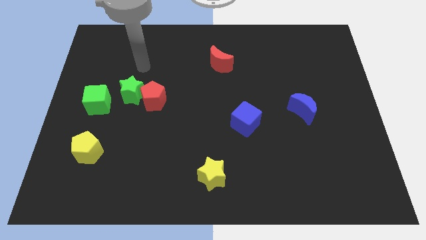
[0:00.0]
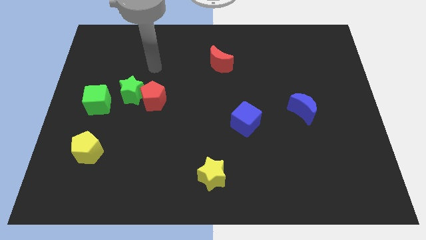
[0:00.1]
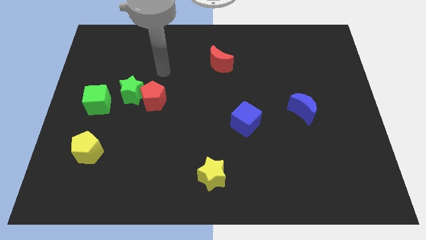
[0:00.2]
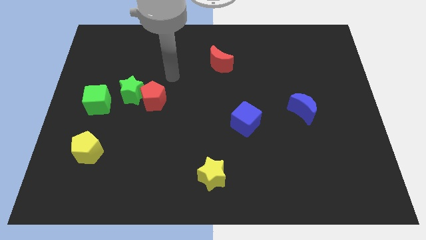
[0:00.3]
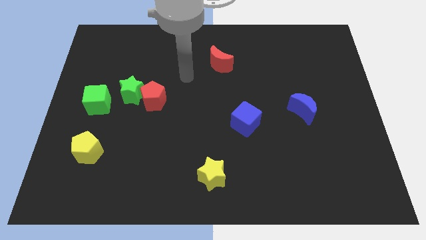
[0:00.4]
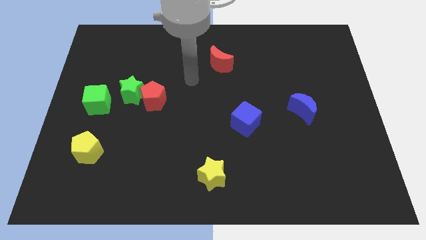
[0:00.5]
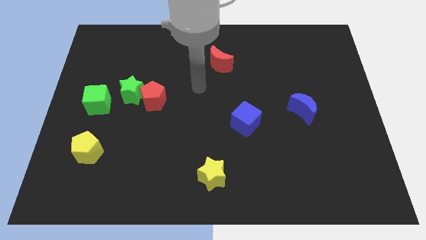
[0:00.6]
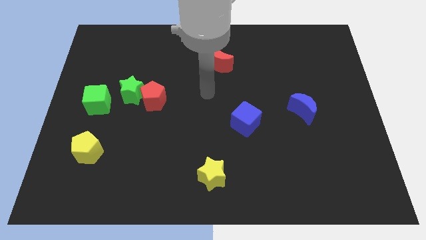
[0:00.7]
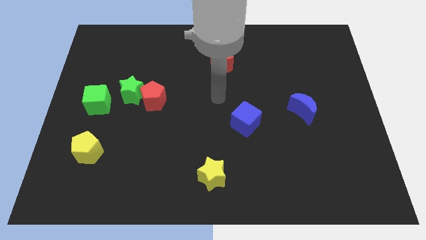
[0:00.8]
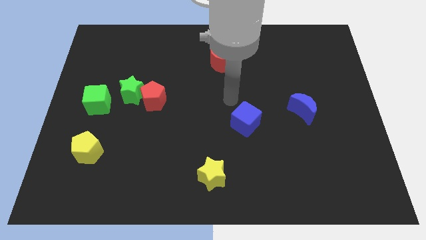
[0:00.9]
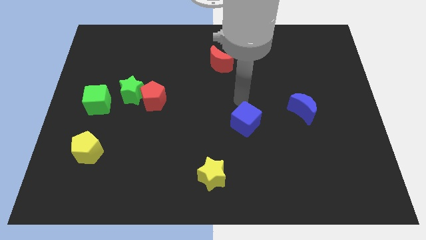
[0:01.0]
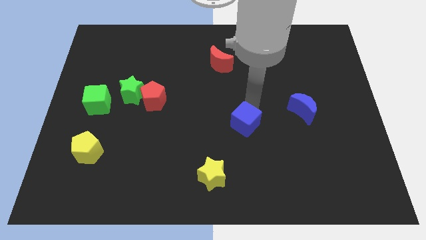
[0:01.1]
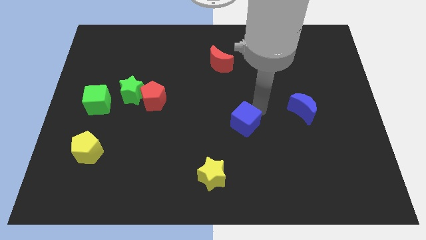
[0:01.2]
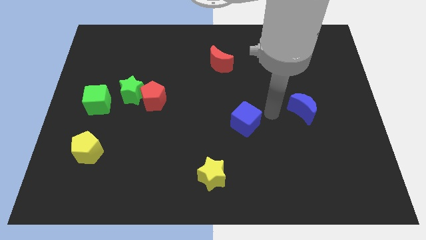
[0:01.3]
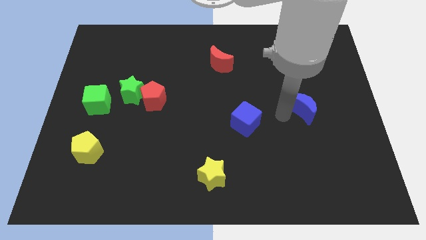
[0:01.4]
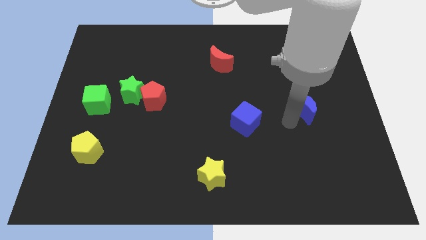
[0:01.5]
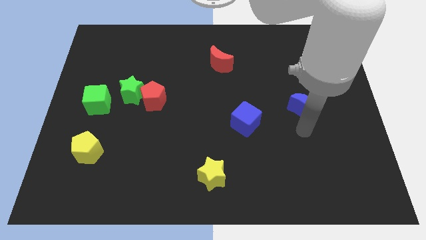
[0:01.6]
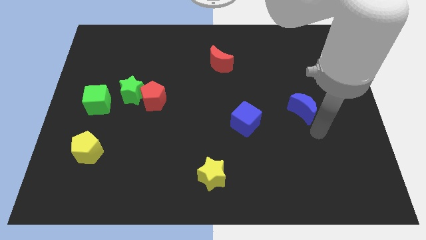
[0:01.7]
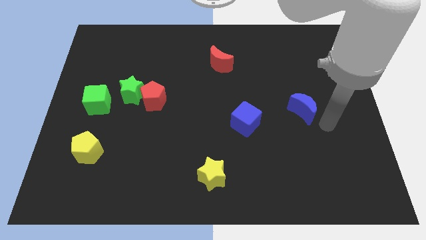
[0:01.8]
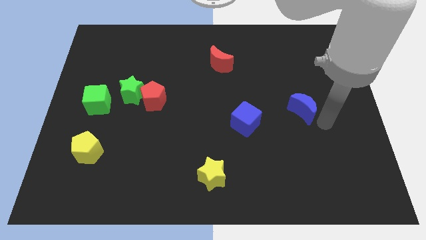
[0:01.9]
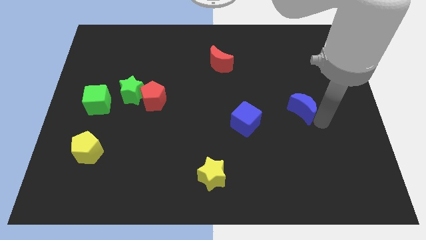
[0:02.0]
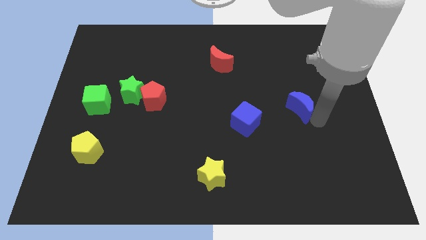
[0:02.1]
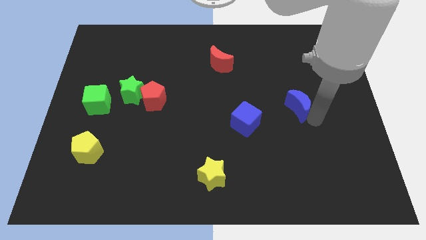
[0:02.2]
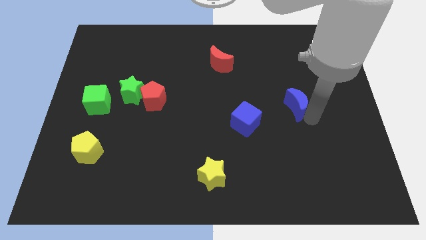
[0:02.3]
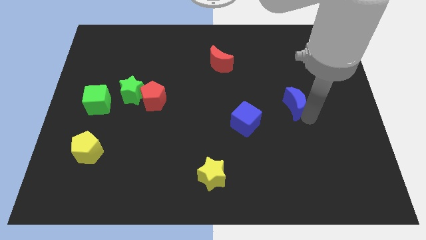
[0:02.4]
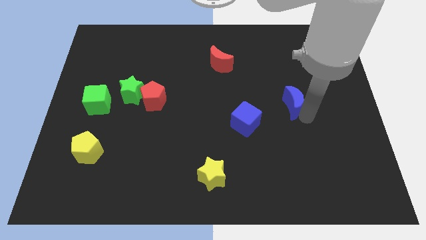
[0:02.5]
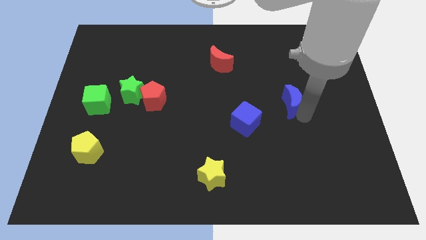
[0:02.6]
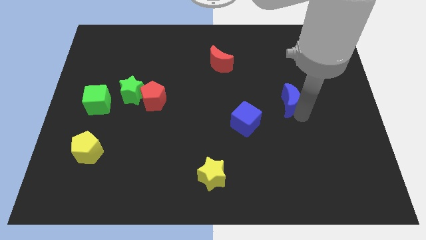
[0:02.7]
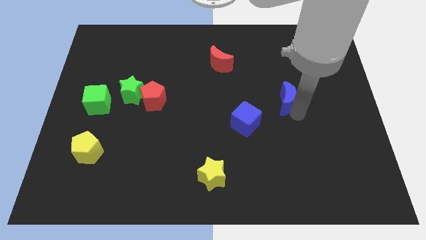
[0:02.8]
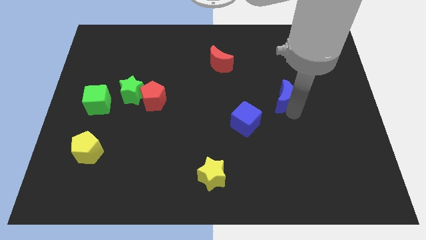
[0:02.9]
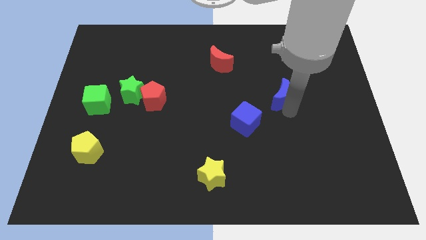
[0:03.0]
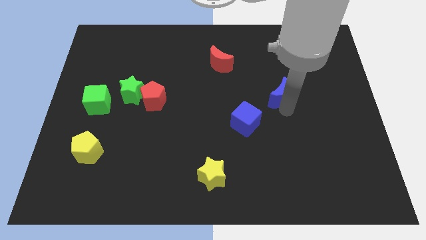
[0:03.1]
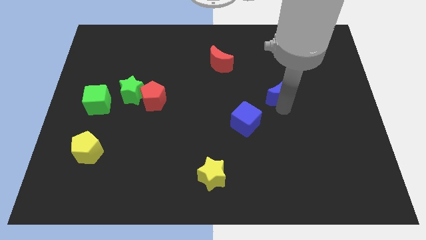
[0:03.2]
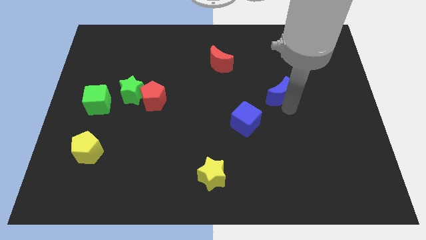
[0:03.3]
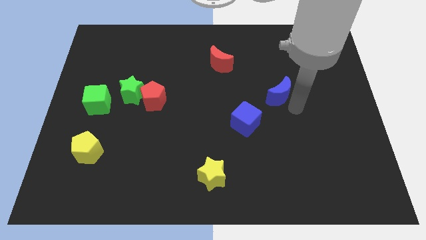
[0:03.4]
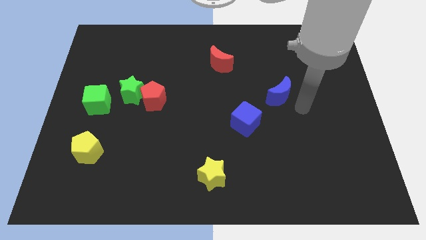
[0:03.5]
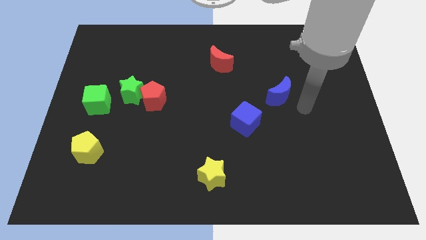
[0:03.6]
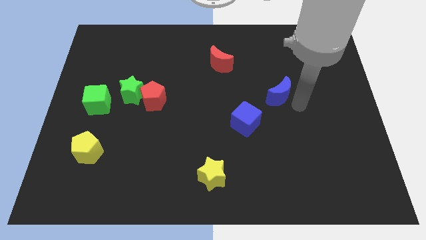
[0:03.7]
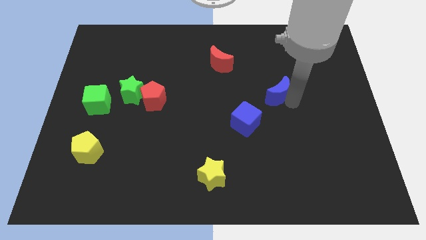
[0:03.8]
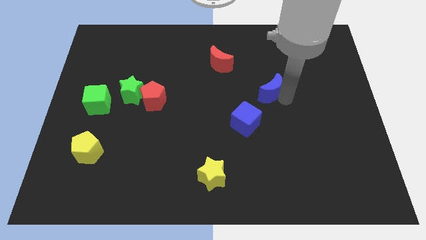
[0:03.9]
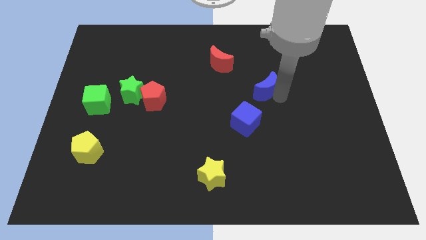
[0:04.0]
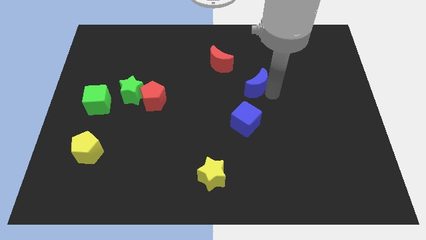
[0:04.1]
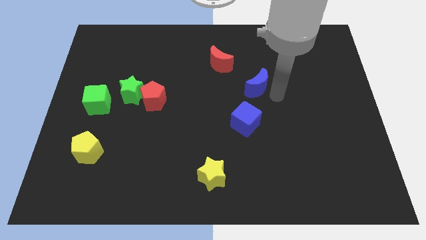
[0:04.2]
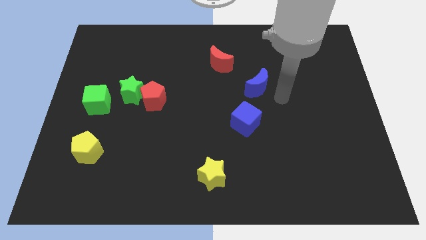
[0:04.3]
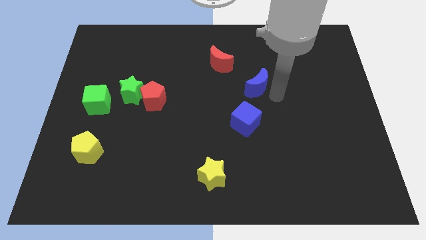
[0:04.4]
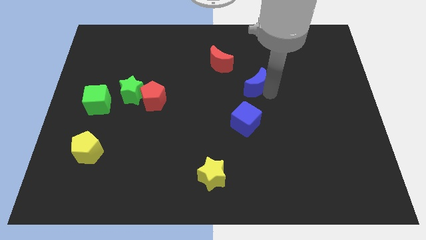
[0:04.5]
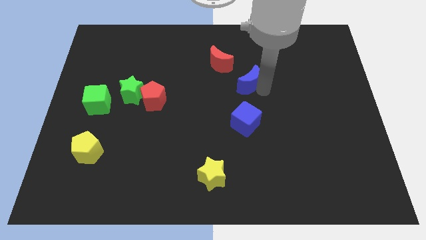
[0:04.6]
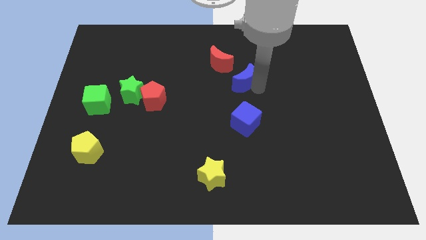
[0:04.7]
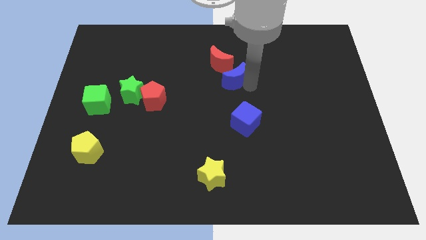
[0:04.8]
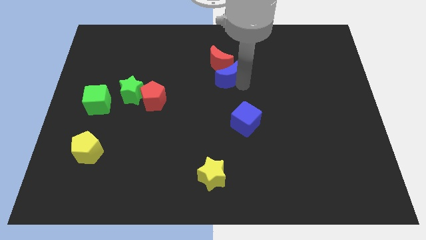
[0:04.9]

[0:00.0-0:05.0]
move the blue moon towards the red moon

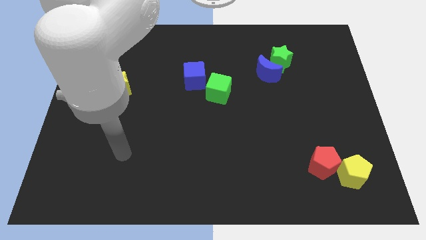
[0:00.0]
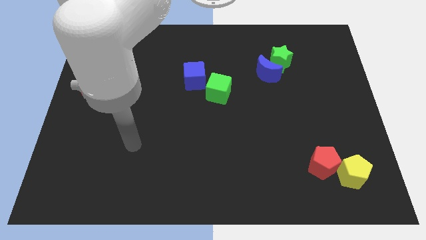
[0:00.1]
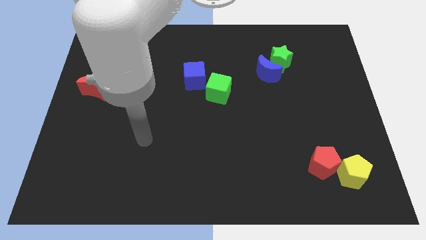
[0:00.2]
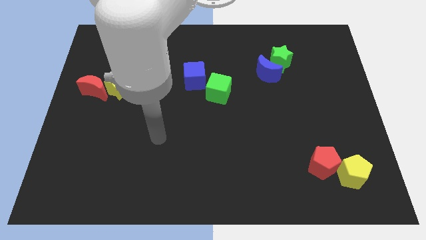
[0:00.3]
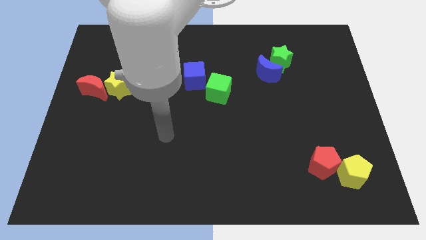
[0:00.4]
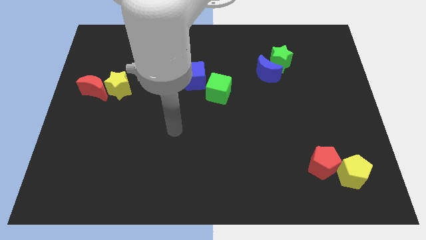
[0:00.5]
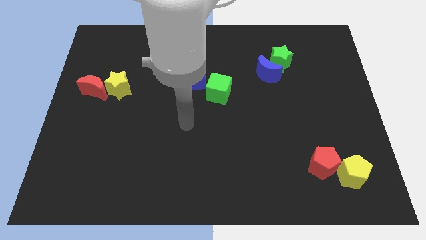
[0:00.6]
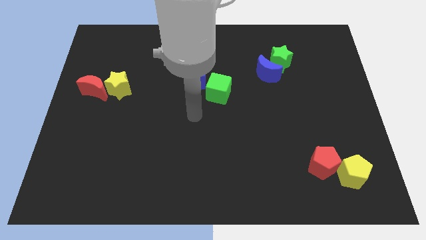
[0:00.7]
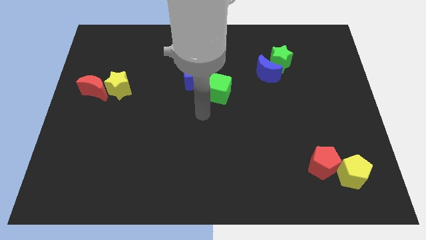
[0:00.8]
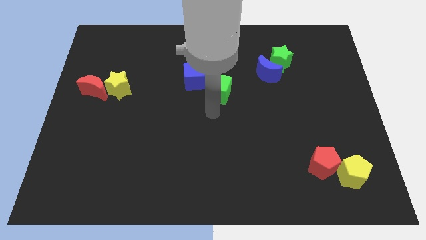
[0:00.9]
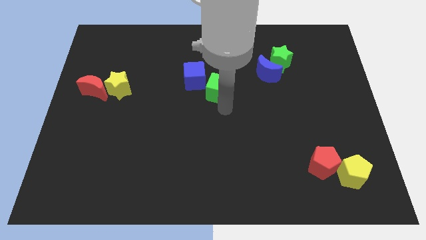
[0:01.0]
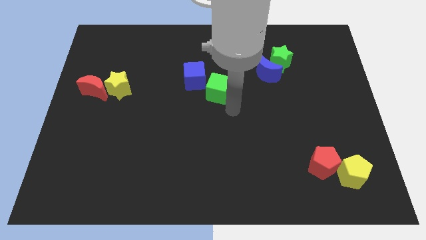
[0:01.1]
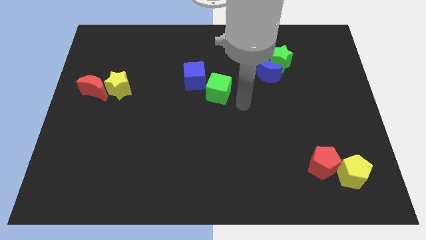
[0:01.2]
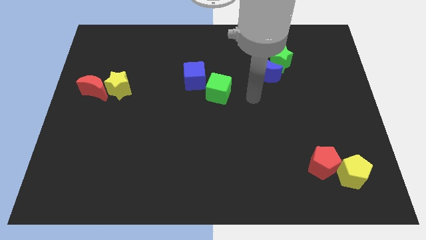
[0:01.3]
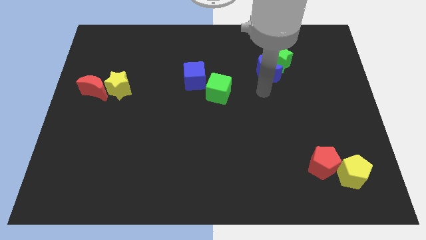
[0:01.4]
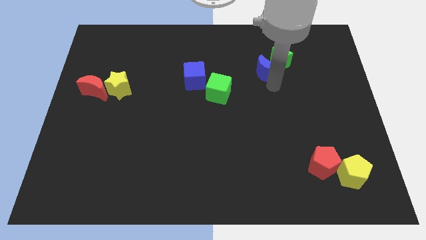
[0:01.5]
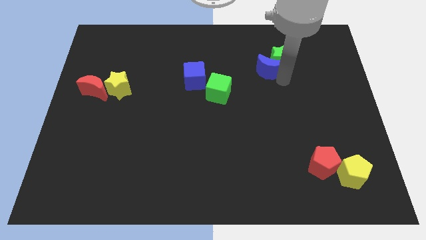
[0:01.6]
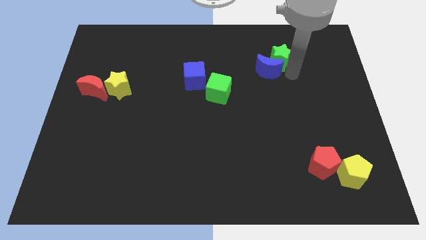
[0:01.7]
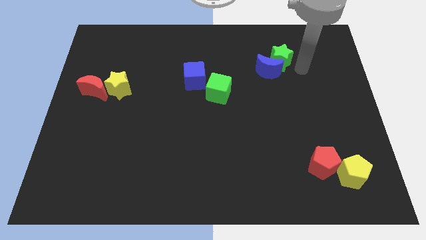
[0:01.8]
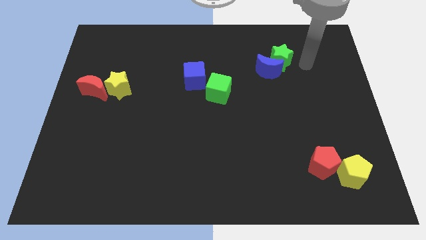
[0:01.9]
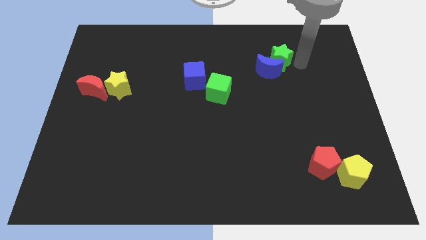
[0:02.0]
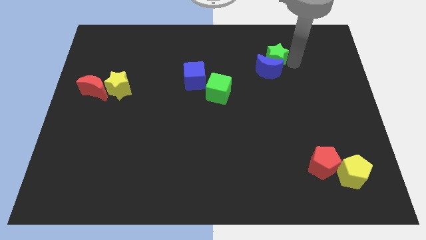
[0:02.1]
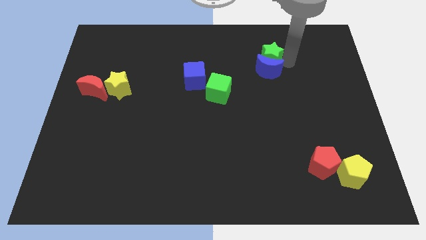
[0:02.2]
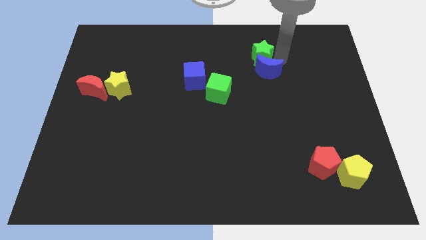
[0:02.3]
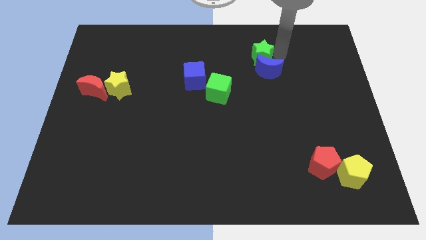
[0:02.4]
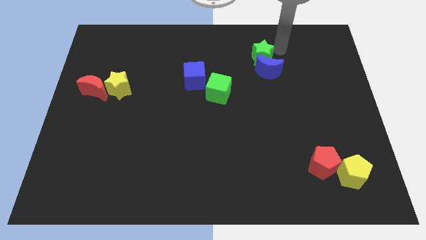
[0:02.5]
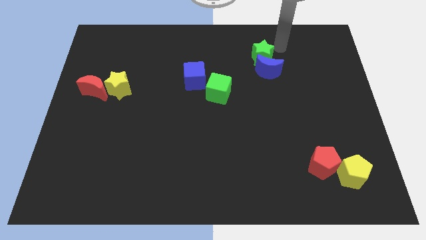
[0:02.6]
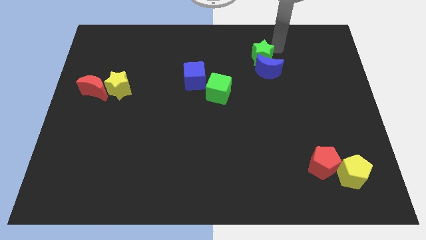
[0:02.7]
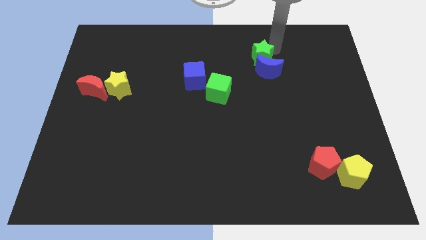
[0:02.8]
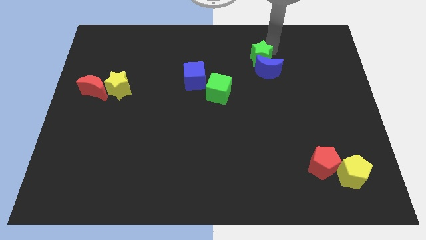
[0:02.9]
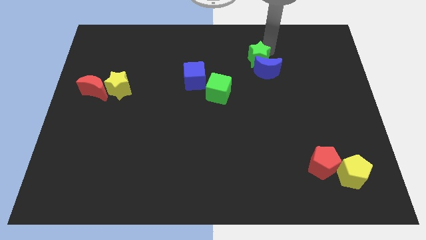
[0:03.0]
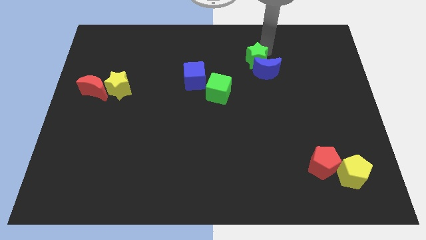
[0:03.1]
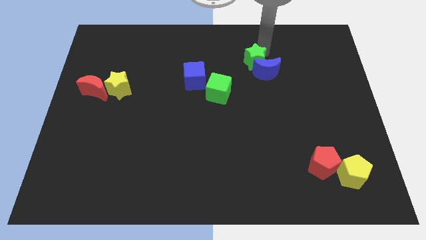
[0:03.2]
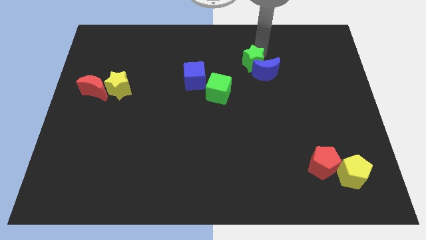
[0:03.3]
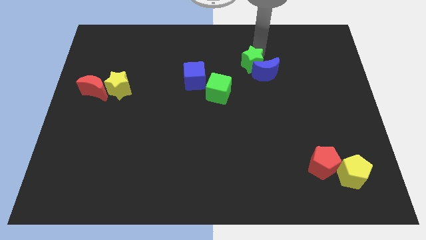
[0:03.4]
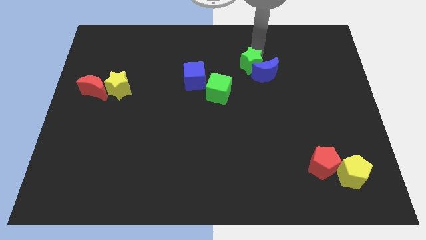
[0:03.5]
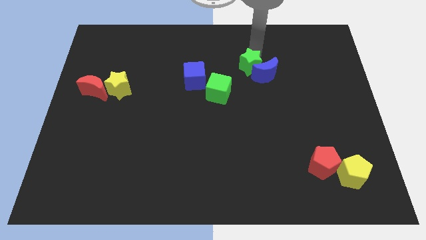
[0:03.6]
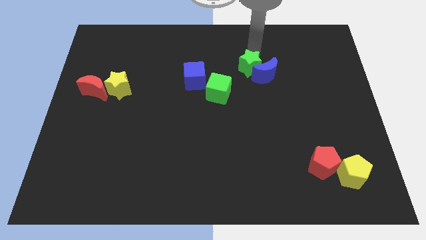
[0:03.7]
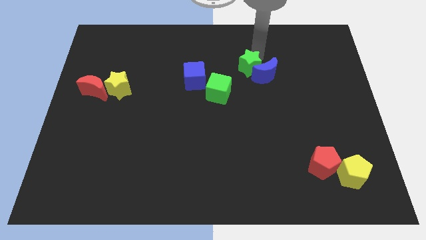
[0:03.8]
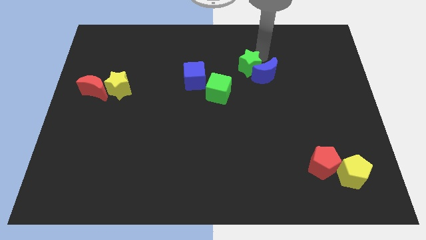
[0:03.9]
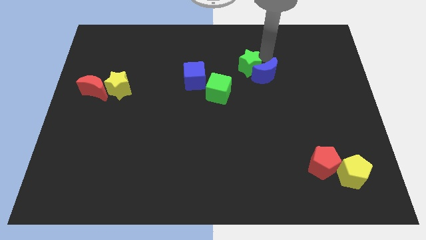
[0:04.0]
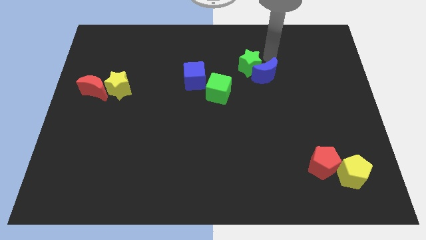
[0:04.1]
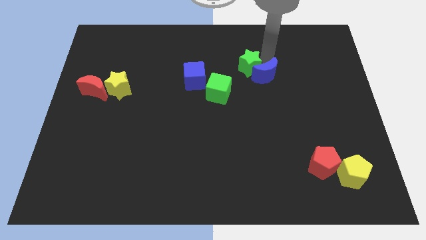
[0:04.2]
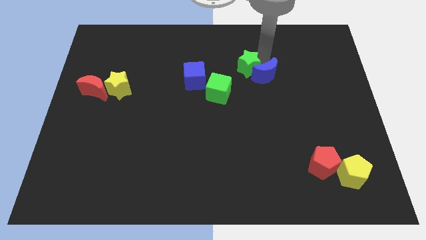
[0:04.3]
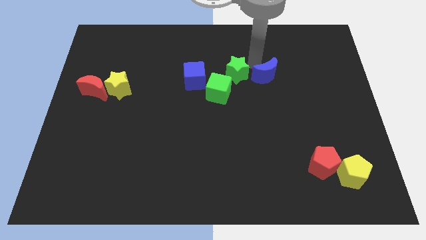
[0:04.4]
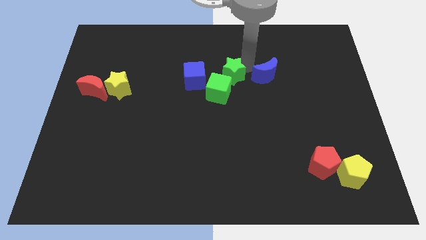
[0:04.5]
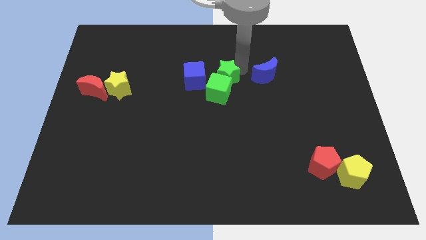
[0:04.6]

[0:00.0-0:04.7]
put the green star to the green cube
